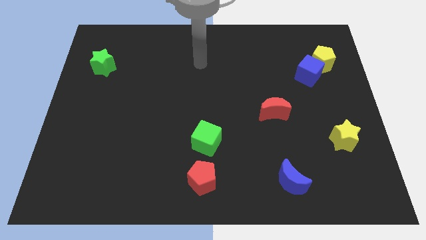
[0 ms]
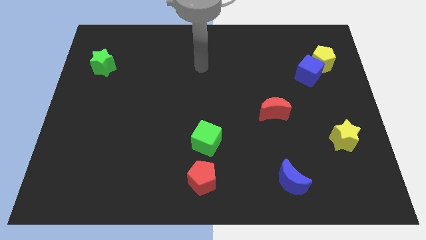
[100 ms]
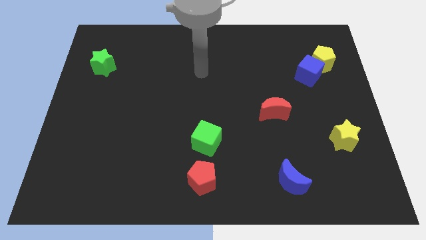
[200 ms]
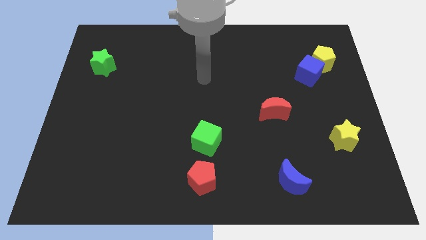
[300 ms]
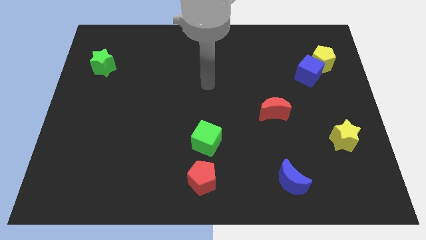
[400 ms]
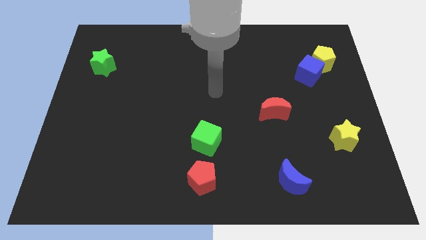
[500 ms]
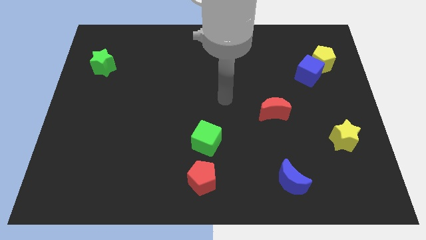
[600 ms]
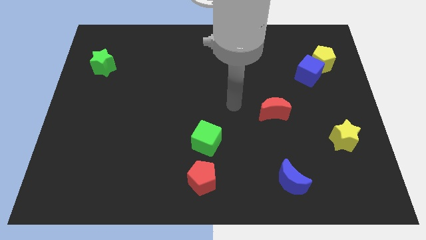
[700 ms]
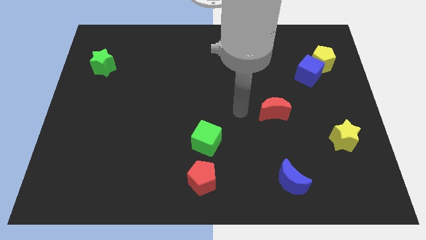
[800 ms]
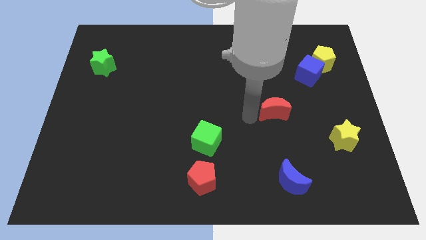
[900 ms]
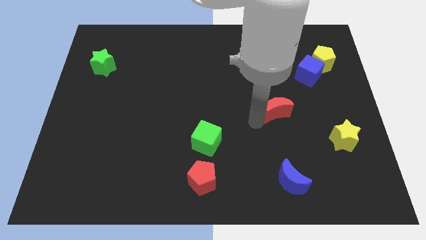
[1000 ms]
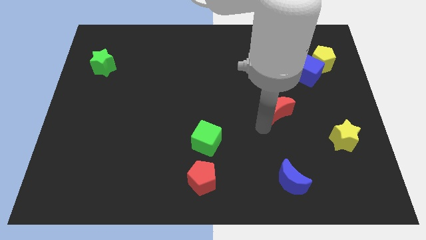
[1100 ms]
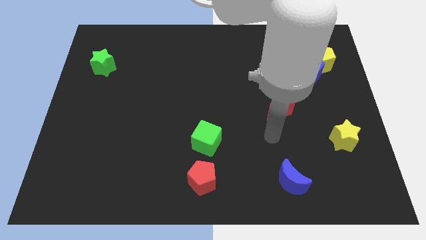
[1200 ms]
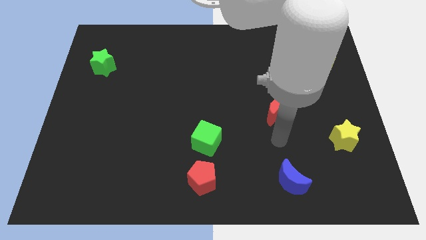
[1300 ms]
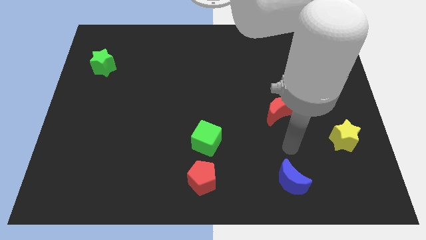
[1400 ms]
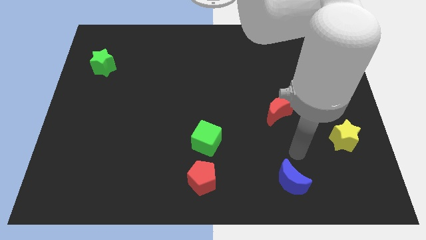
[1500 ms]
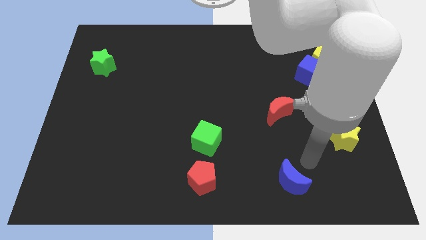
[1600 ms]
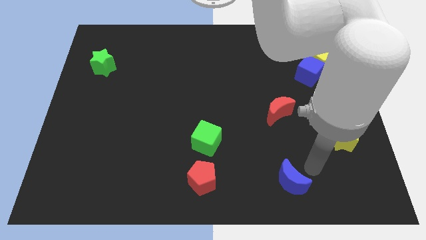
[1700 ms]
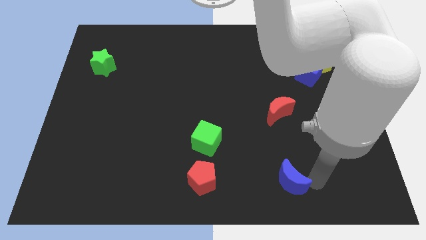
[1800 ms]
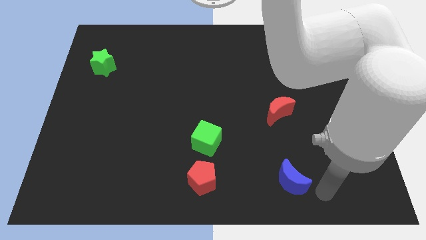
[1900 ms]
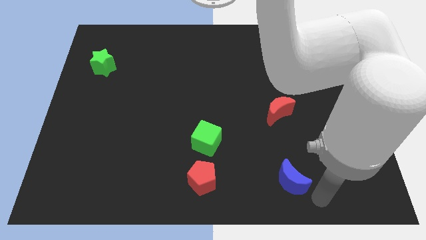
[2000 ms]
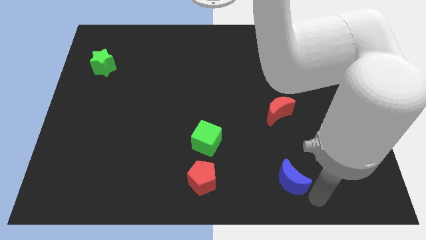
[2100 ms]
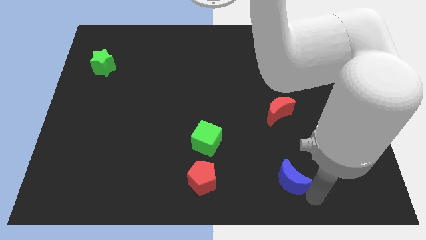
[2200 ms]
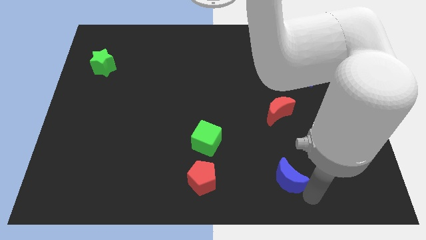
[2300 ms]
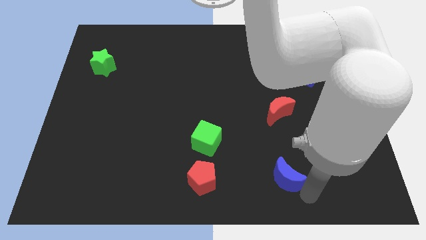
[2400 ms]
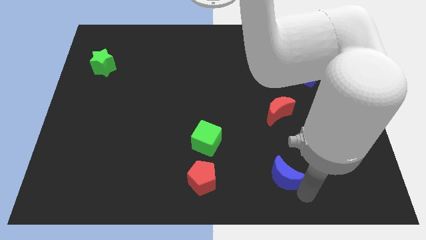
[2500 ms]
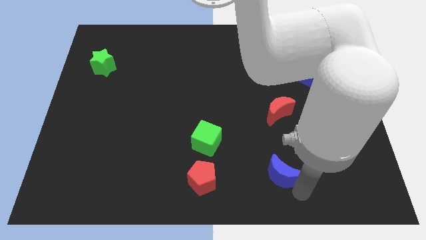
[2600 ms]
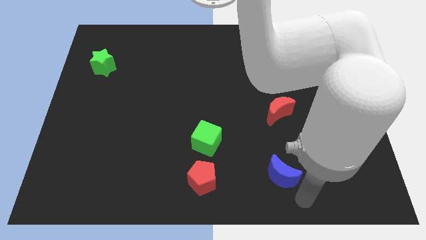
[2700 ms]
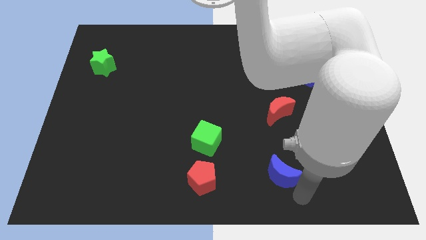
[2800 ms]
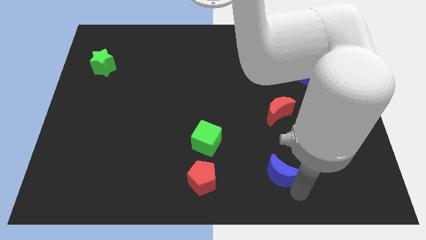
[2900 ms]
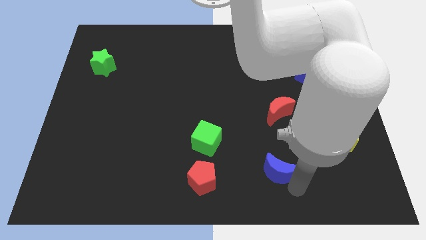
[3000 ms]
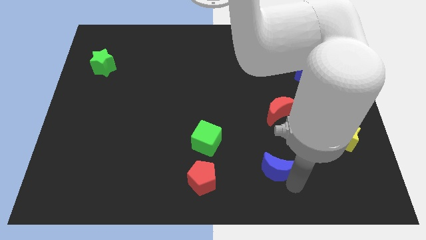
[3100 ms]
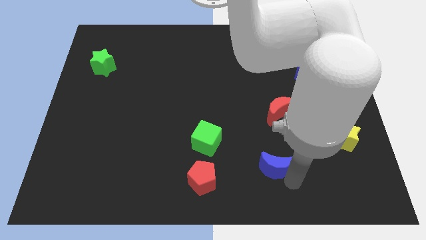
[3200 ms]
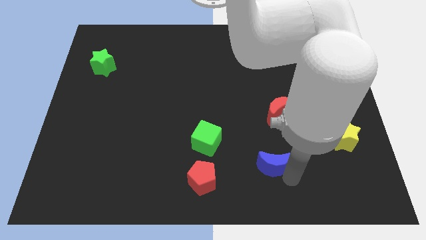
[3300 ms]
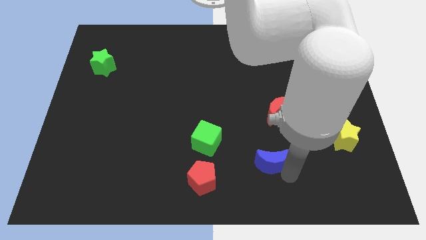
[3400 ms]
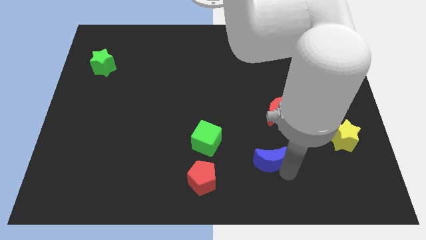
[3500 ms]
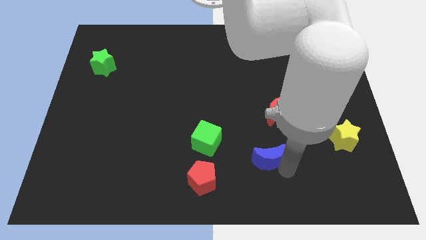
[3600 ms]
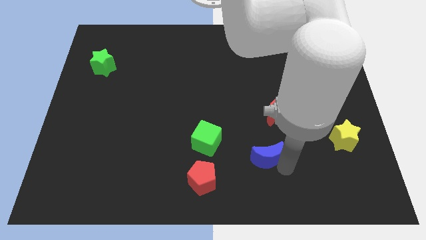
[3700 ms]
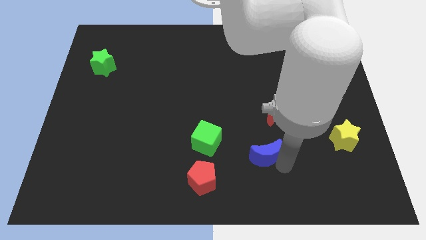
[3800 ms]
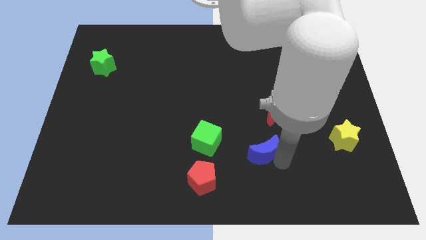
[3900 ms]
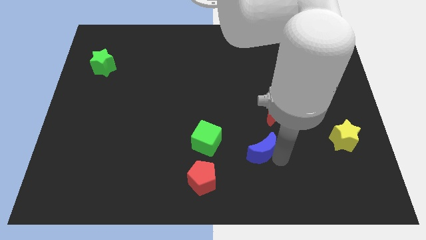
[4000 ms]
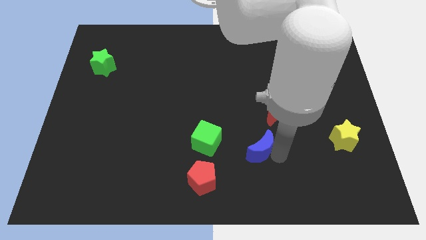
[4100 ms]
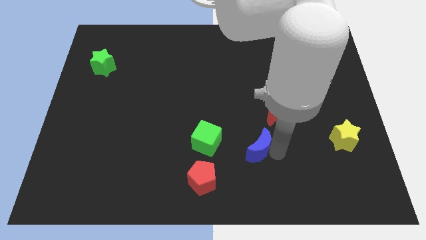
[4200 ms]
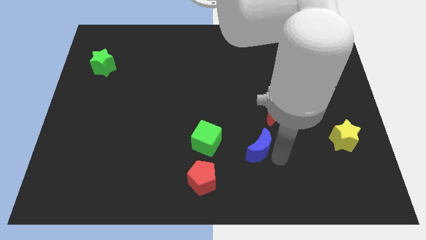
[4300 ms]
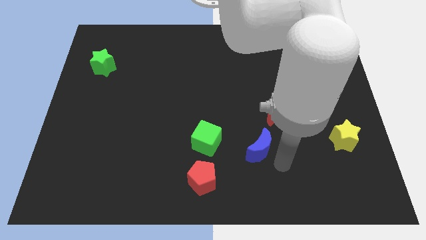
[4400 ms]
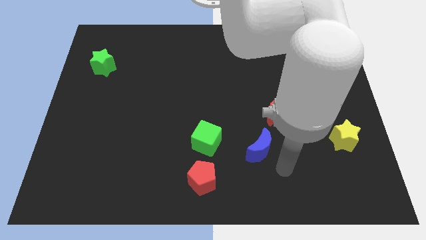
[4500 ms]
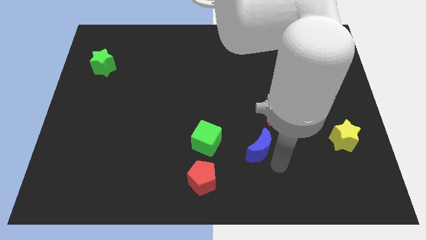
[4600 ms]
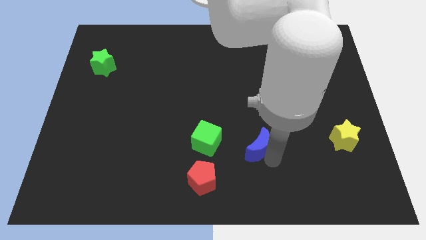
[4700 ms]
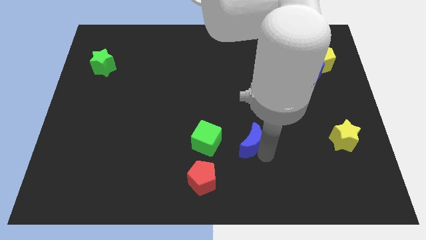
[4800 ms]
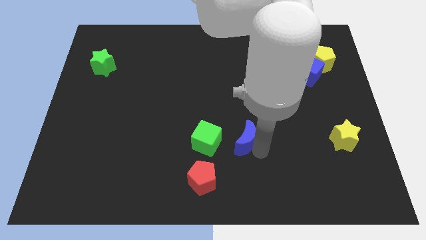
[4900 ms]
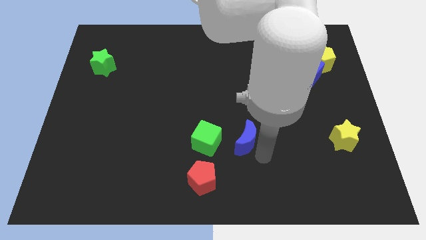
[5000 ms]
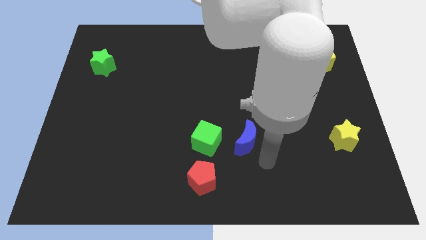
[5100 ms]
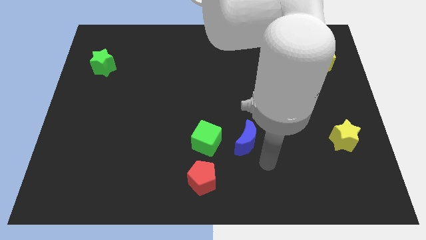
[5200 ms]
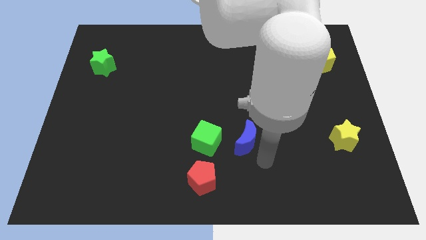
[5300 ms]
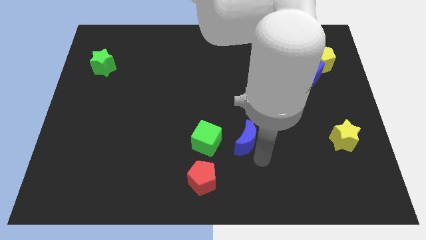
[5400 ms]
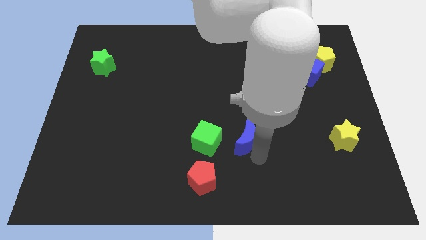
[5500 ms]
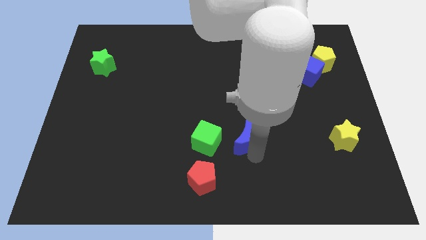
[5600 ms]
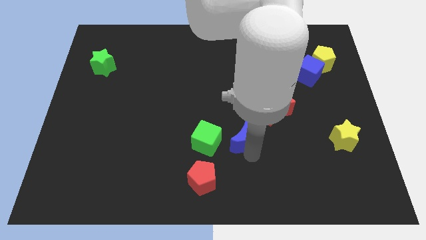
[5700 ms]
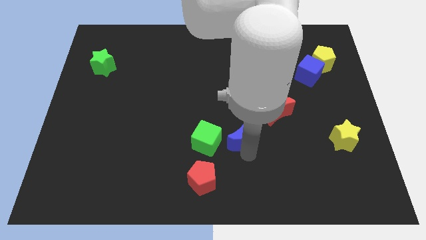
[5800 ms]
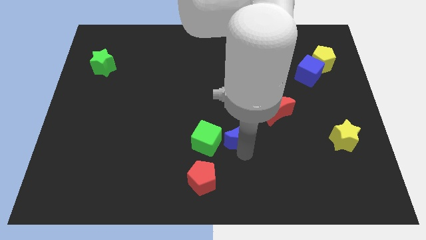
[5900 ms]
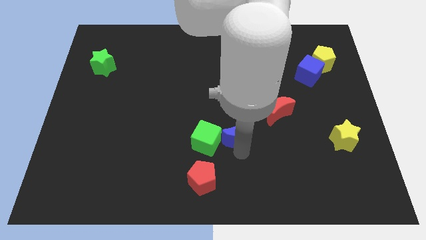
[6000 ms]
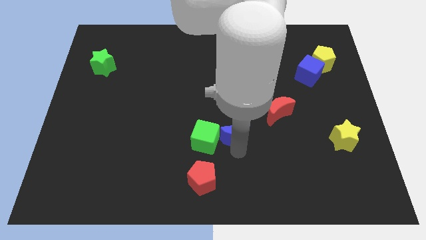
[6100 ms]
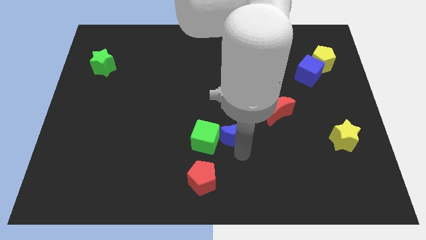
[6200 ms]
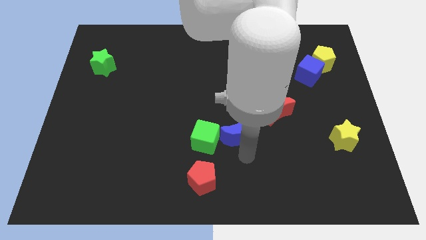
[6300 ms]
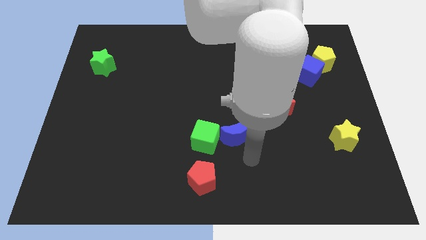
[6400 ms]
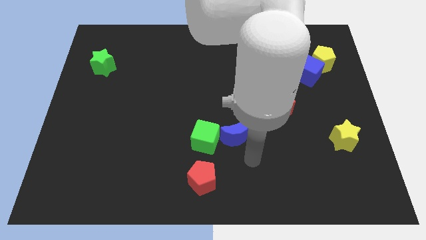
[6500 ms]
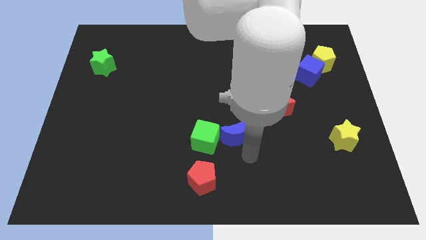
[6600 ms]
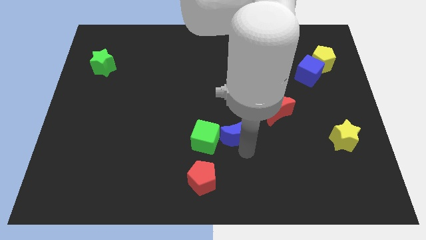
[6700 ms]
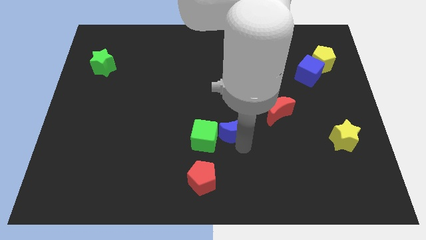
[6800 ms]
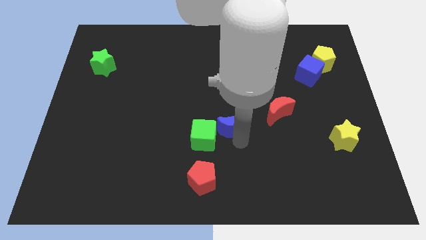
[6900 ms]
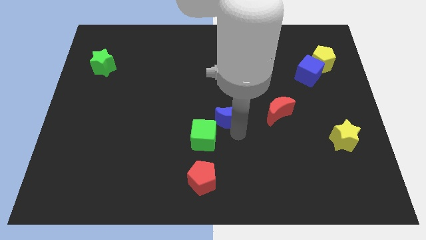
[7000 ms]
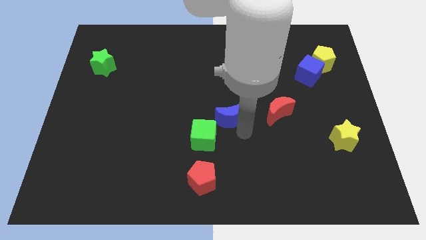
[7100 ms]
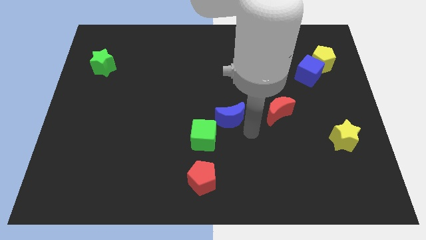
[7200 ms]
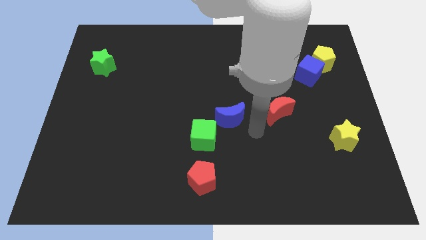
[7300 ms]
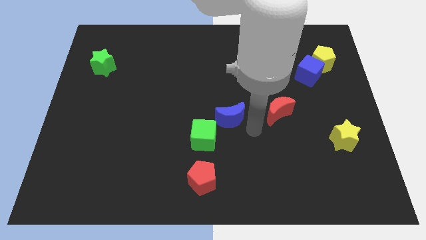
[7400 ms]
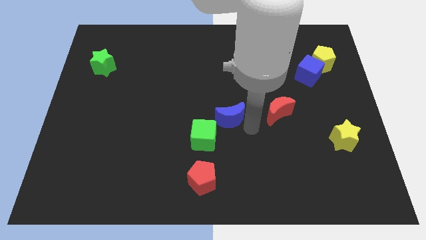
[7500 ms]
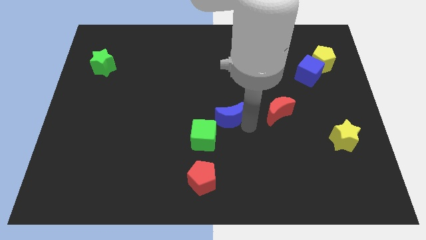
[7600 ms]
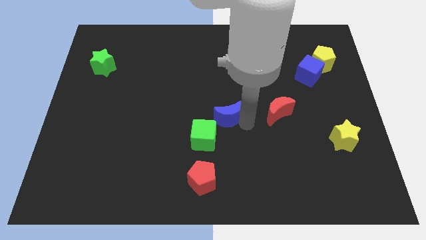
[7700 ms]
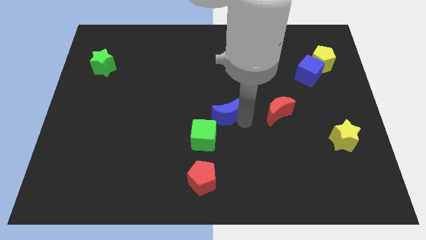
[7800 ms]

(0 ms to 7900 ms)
slide the blue moon diagonally up and left

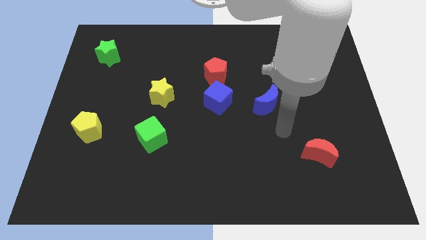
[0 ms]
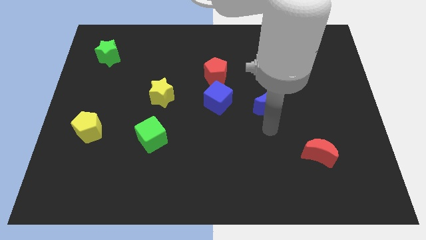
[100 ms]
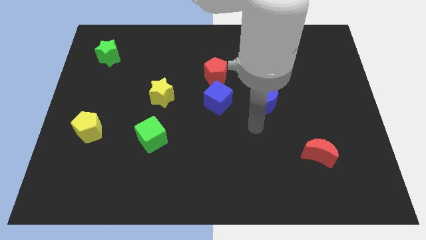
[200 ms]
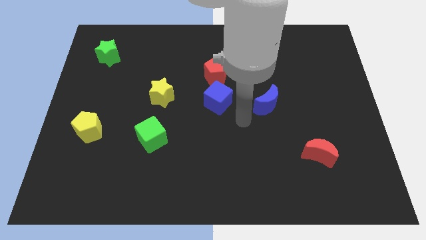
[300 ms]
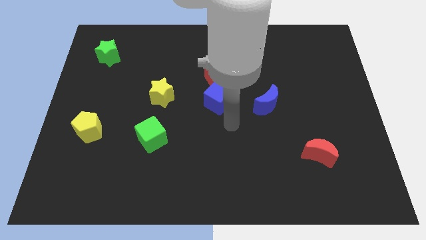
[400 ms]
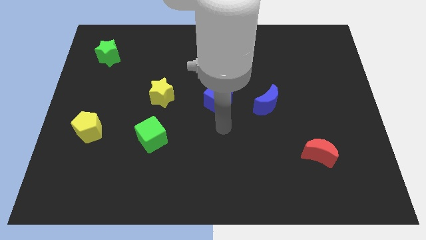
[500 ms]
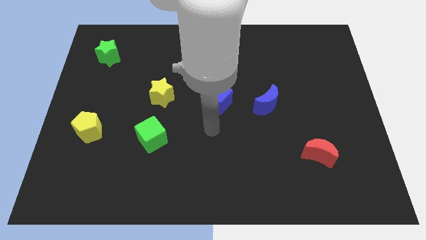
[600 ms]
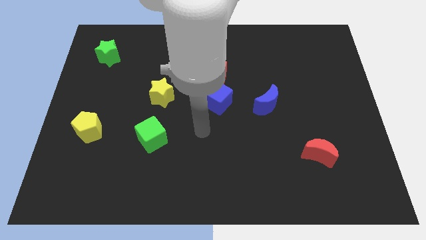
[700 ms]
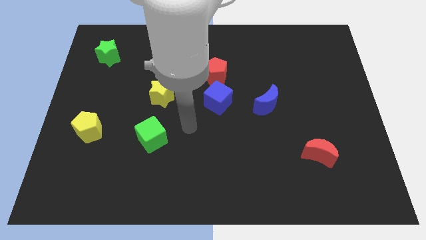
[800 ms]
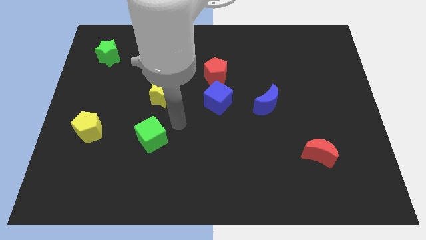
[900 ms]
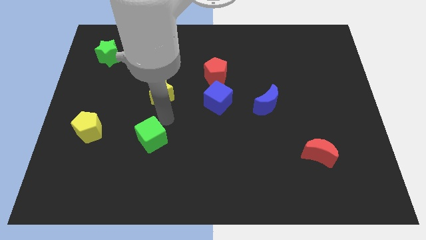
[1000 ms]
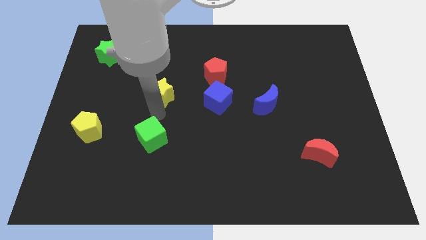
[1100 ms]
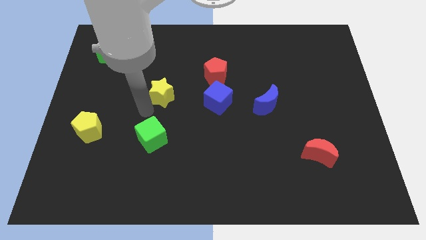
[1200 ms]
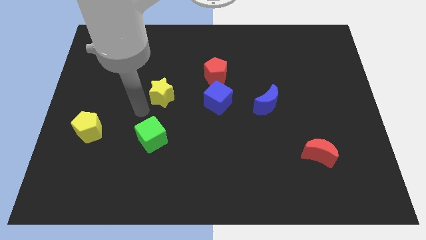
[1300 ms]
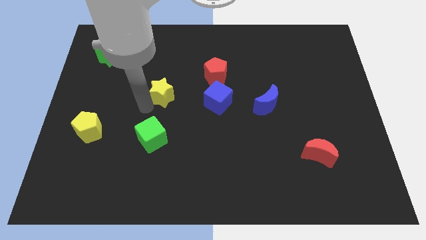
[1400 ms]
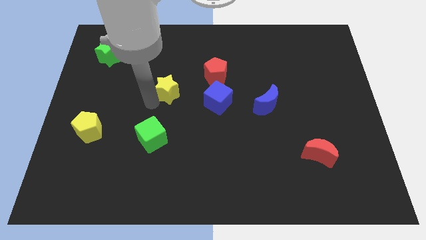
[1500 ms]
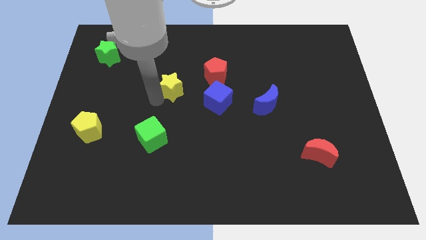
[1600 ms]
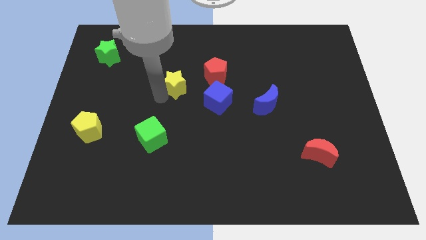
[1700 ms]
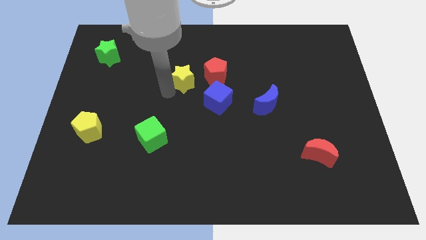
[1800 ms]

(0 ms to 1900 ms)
slide the yellow star a little bit upwards and then right
